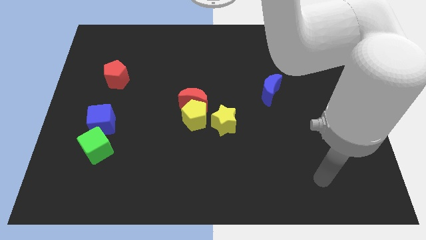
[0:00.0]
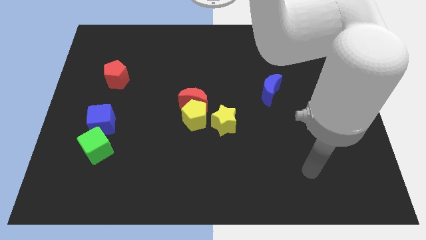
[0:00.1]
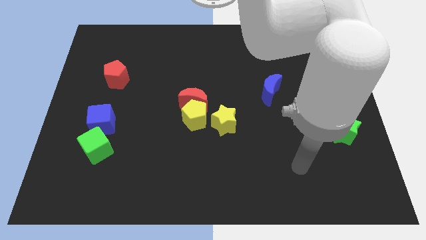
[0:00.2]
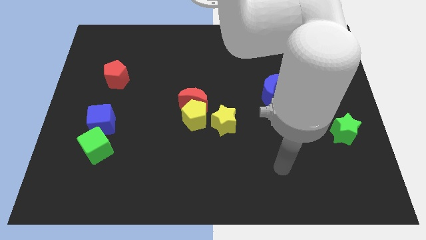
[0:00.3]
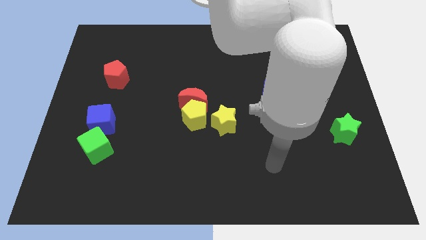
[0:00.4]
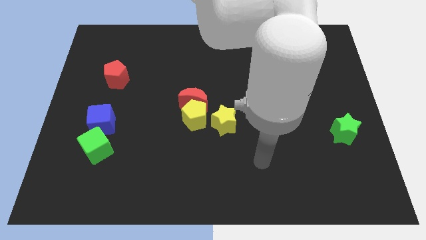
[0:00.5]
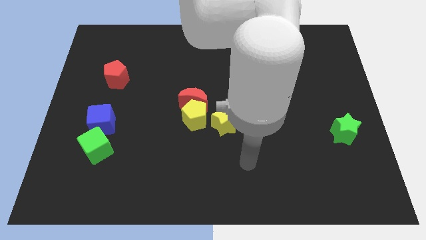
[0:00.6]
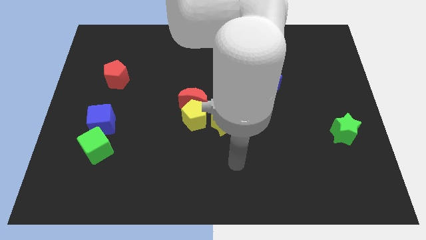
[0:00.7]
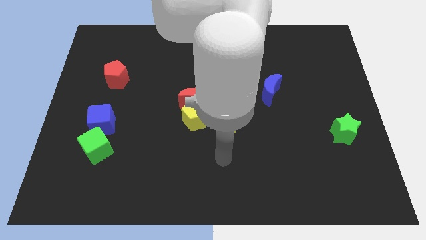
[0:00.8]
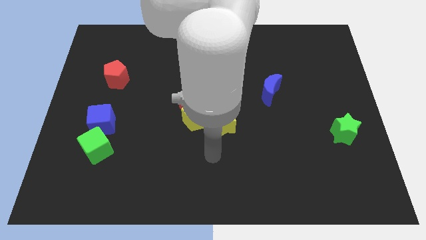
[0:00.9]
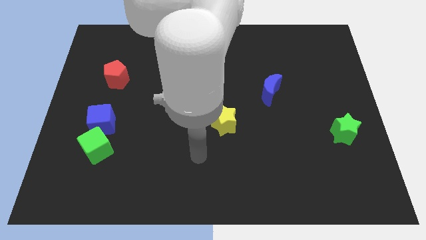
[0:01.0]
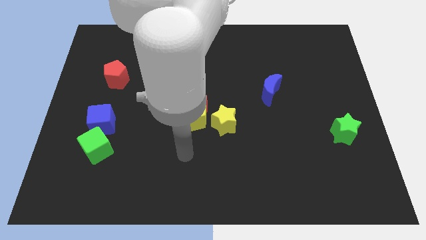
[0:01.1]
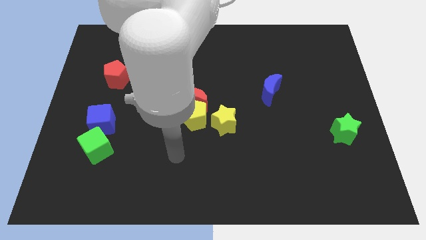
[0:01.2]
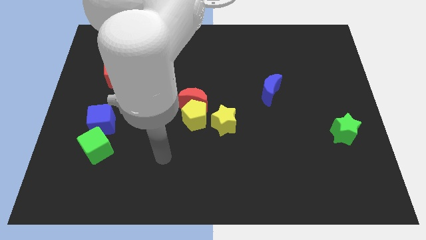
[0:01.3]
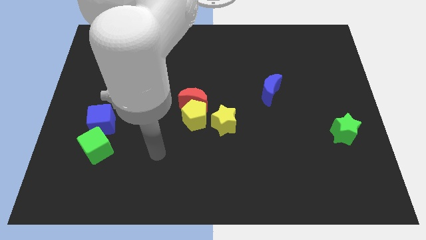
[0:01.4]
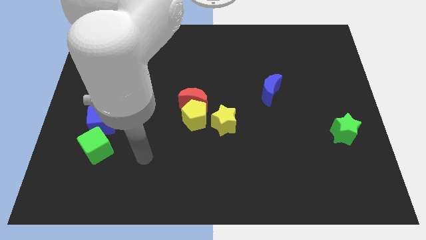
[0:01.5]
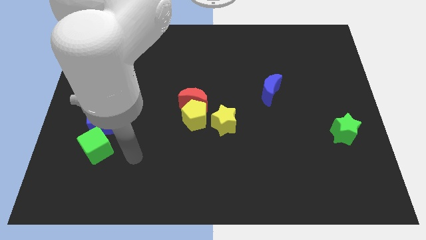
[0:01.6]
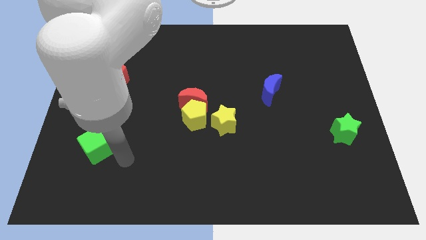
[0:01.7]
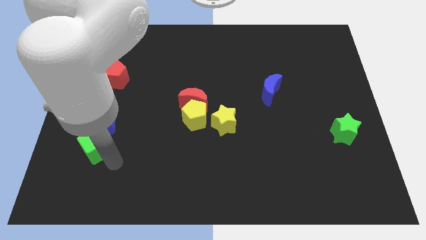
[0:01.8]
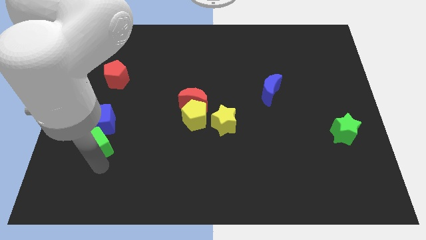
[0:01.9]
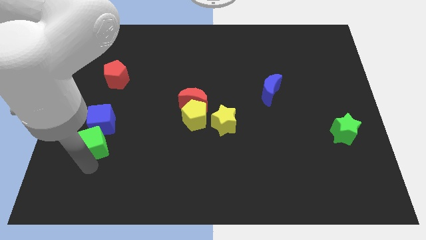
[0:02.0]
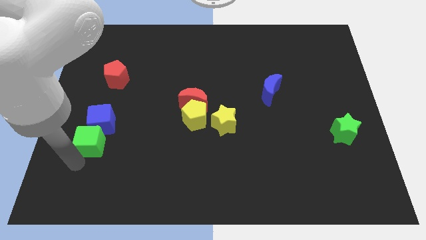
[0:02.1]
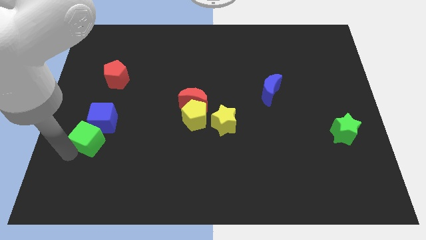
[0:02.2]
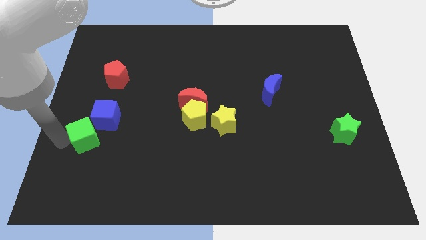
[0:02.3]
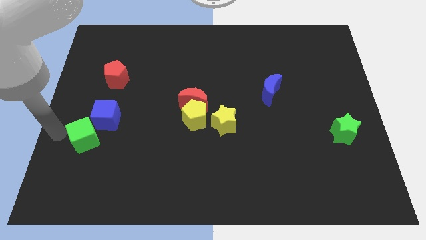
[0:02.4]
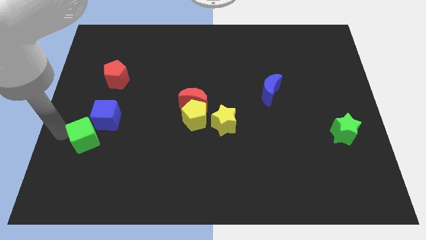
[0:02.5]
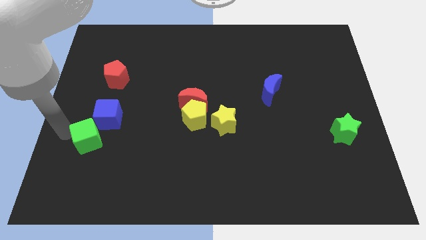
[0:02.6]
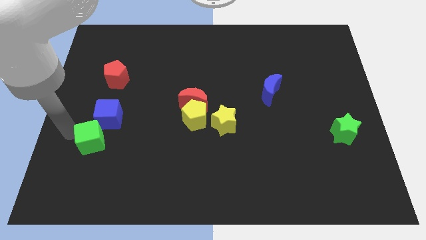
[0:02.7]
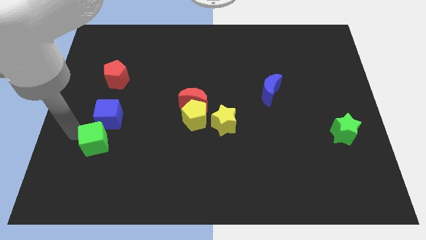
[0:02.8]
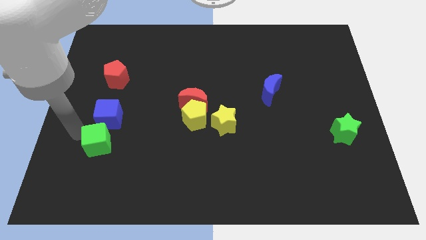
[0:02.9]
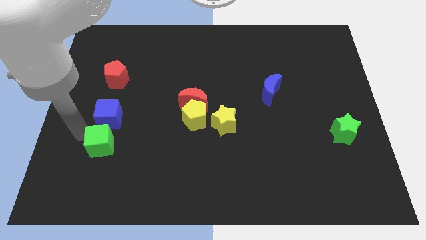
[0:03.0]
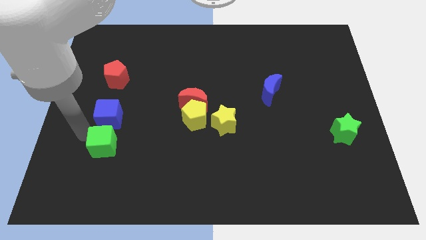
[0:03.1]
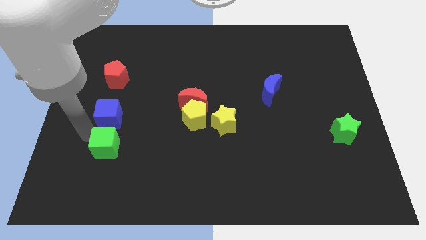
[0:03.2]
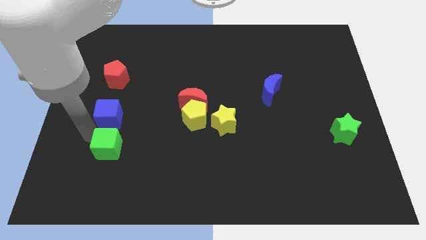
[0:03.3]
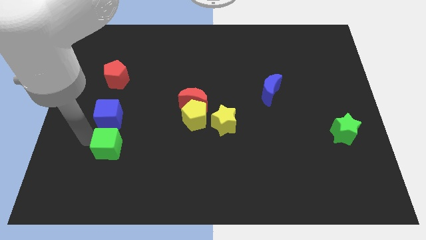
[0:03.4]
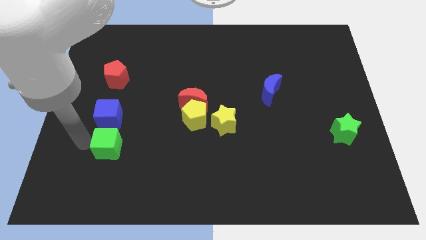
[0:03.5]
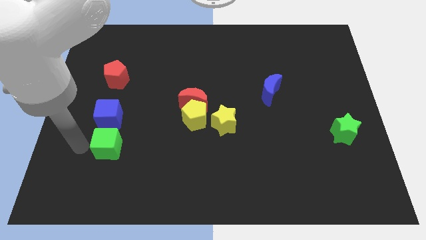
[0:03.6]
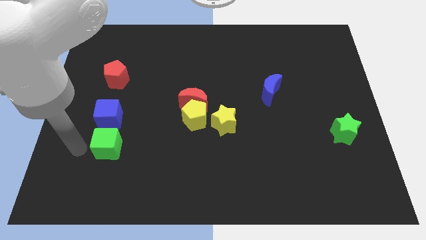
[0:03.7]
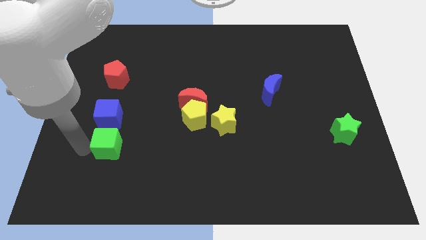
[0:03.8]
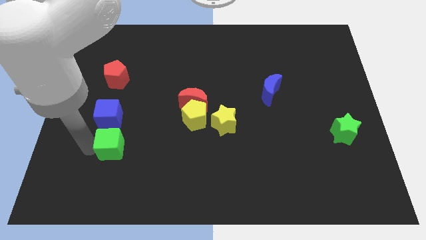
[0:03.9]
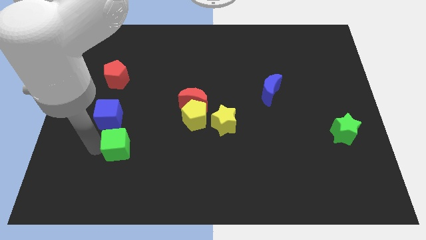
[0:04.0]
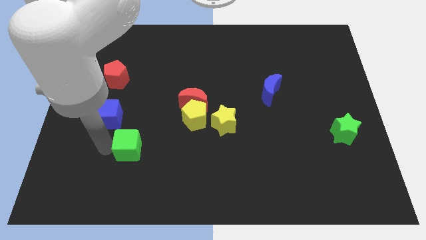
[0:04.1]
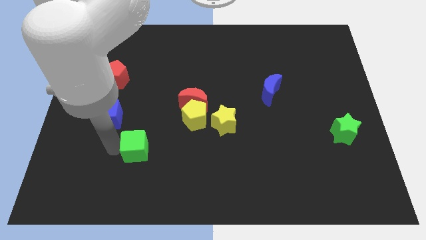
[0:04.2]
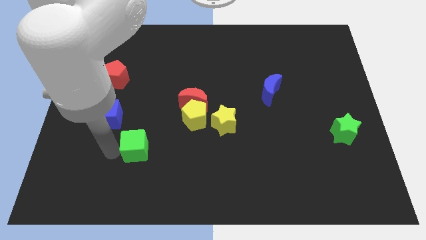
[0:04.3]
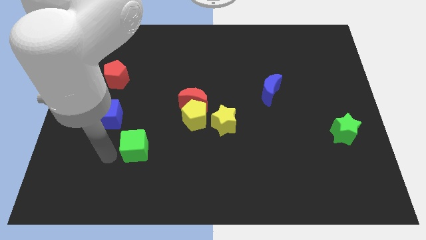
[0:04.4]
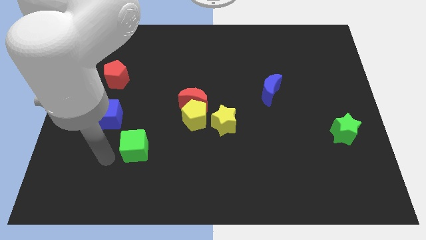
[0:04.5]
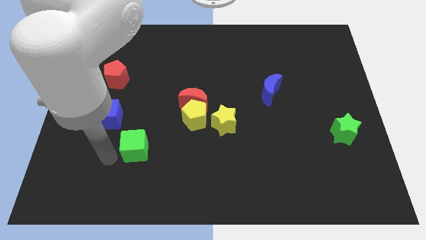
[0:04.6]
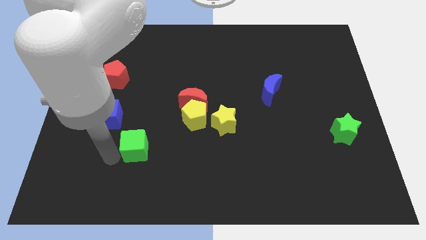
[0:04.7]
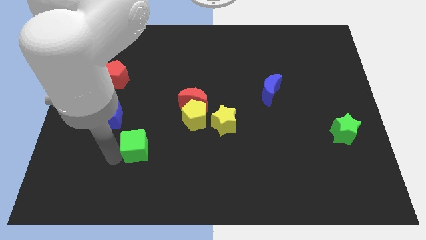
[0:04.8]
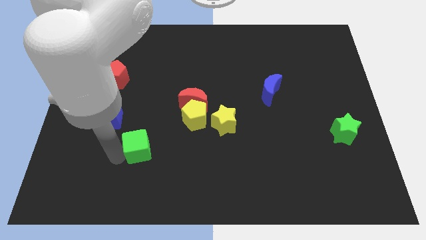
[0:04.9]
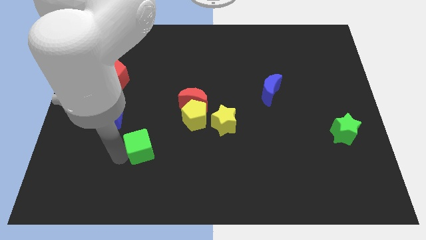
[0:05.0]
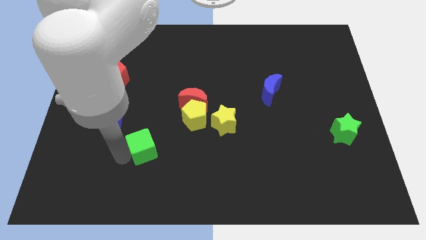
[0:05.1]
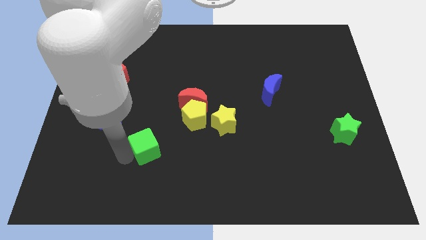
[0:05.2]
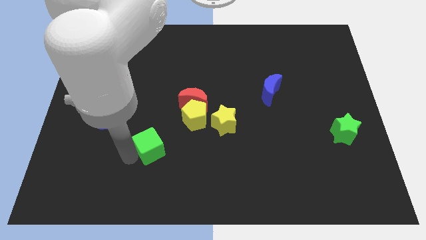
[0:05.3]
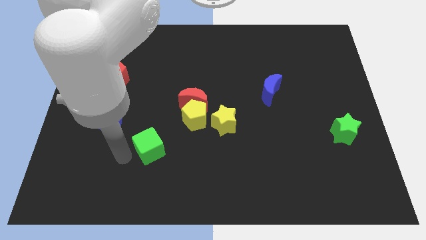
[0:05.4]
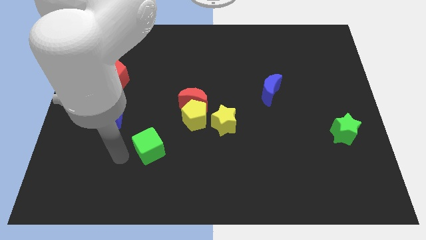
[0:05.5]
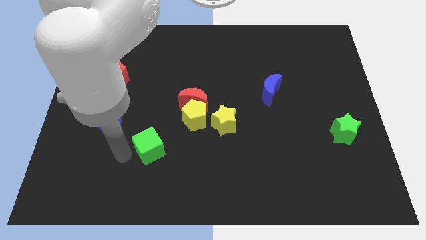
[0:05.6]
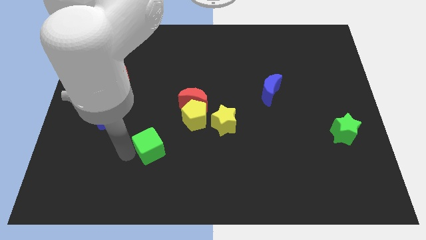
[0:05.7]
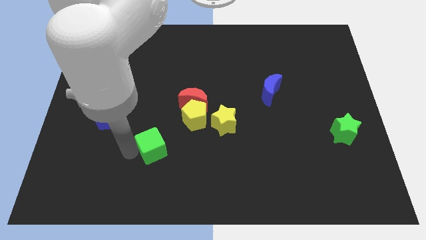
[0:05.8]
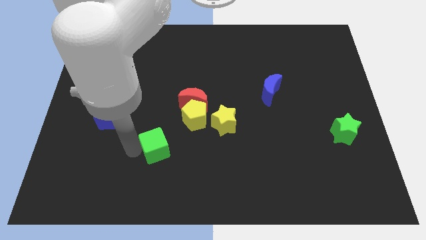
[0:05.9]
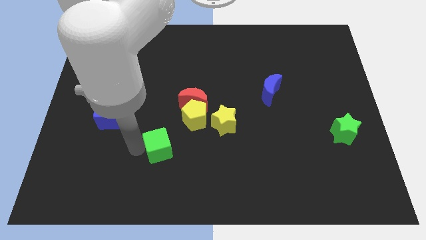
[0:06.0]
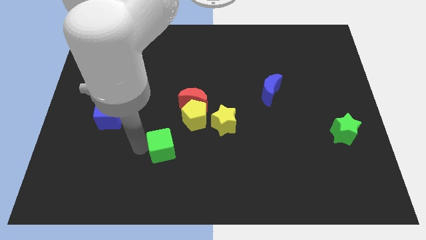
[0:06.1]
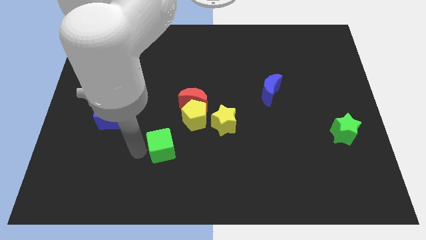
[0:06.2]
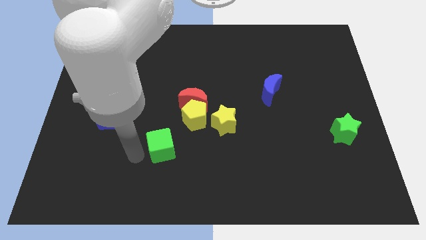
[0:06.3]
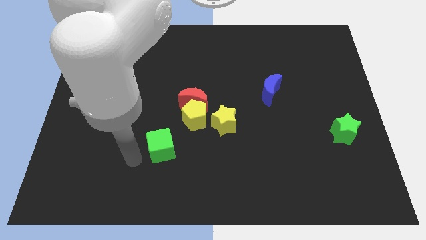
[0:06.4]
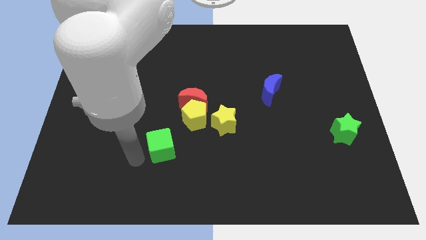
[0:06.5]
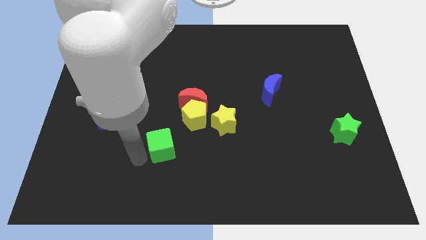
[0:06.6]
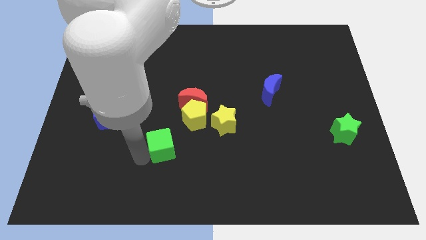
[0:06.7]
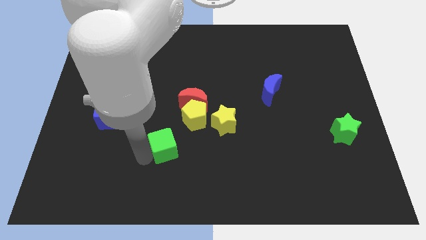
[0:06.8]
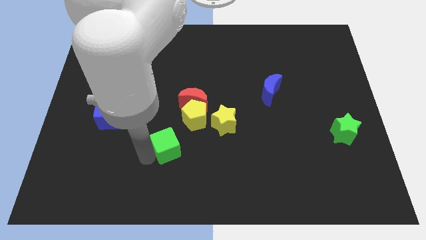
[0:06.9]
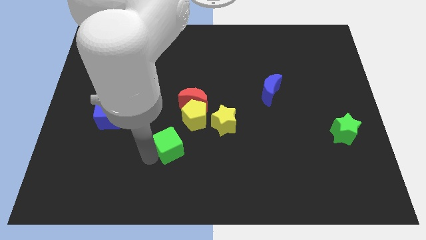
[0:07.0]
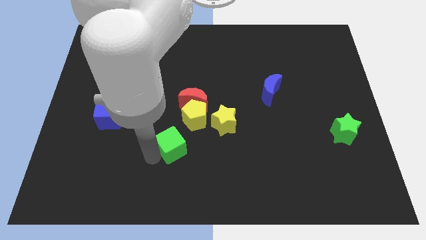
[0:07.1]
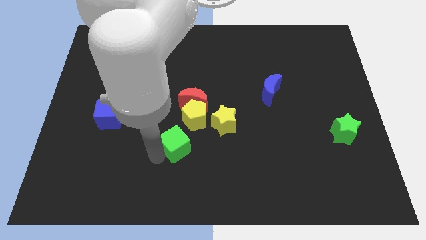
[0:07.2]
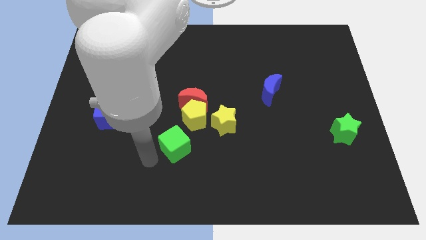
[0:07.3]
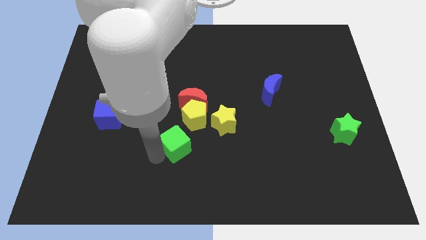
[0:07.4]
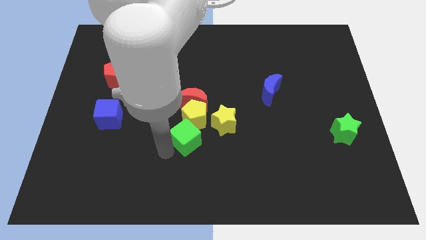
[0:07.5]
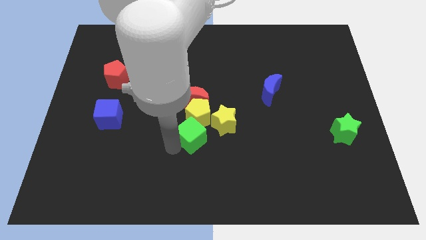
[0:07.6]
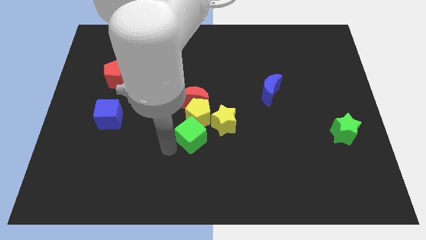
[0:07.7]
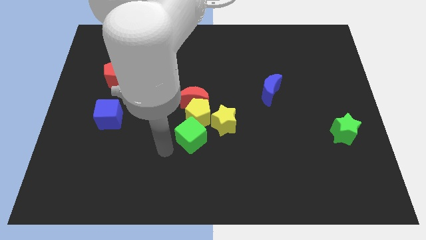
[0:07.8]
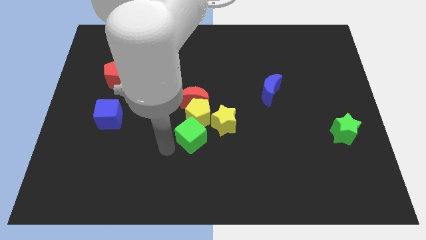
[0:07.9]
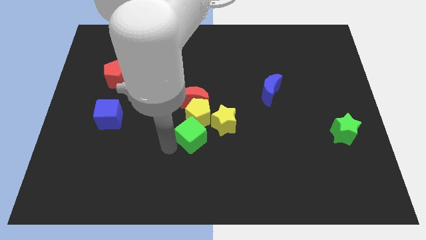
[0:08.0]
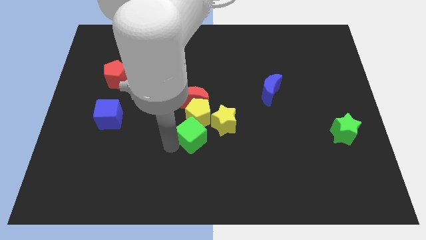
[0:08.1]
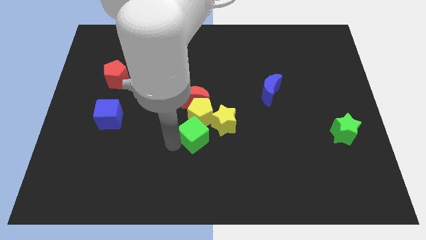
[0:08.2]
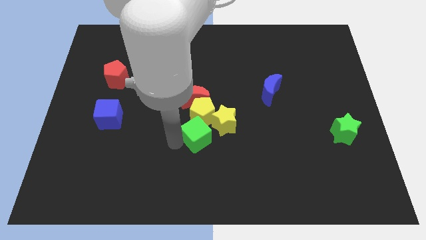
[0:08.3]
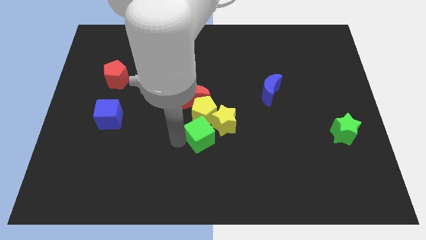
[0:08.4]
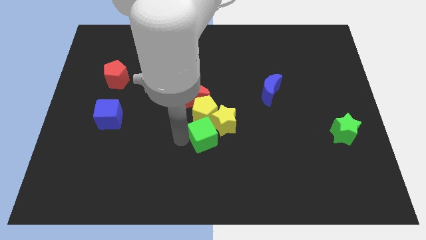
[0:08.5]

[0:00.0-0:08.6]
put the green cube towards the yellow star
